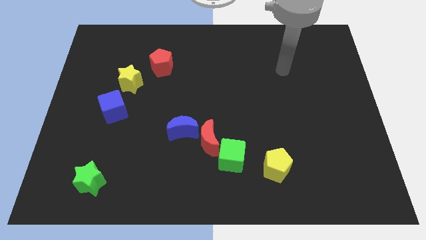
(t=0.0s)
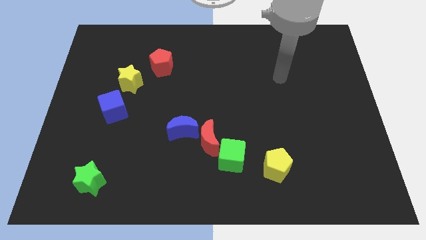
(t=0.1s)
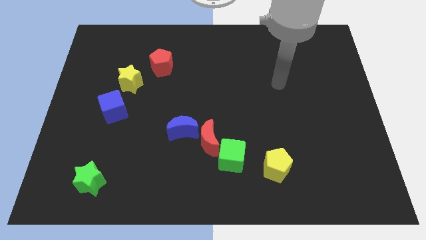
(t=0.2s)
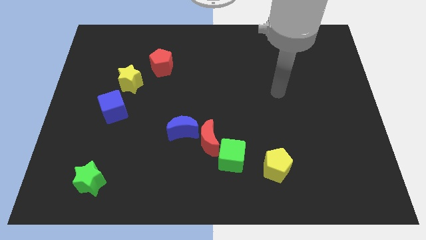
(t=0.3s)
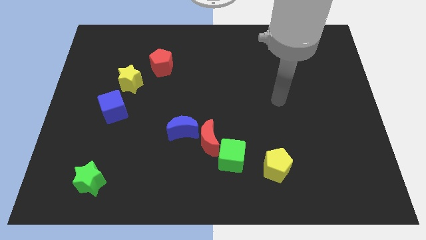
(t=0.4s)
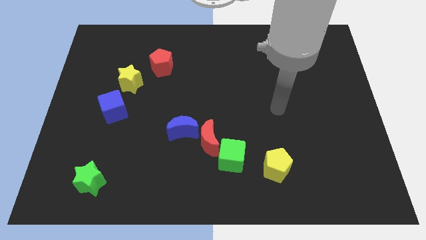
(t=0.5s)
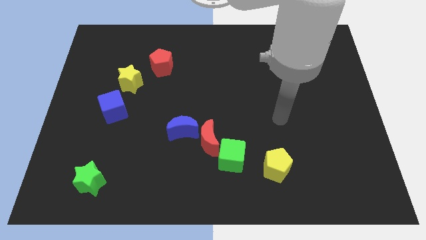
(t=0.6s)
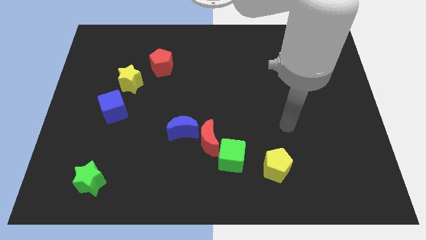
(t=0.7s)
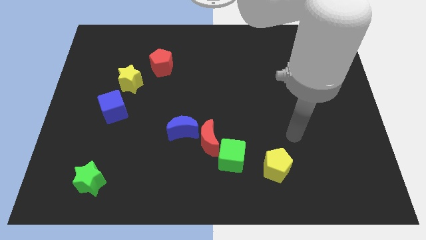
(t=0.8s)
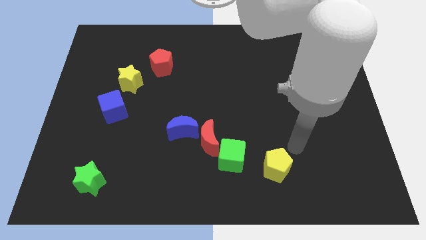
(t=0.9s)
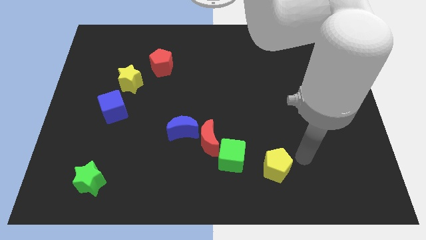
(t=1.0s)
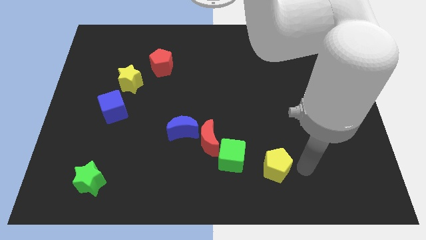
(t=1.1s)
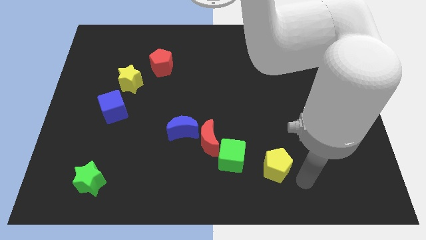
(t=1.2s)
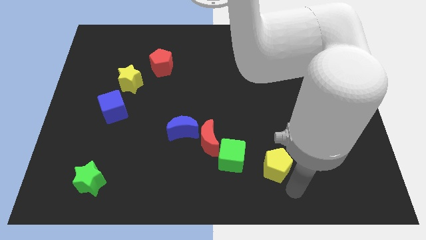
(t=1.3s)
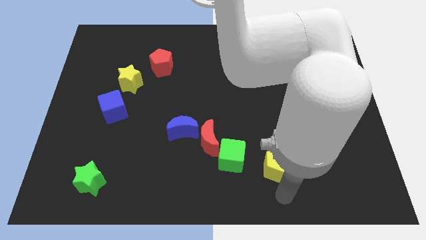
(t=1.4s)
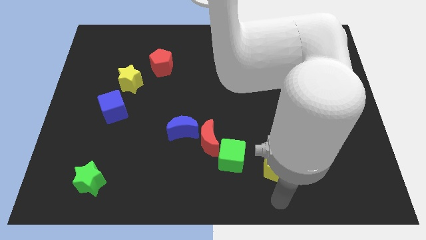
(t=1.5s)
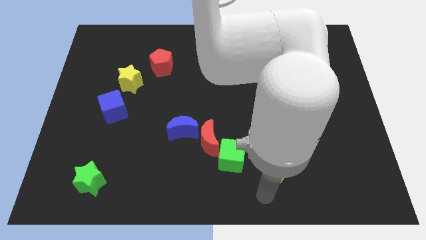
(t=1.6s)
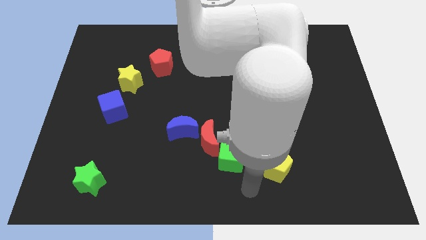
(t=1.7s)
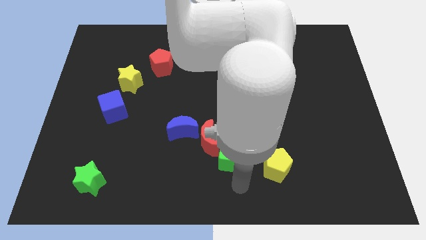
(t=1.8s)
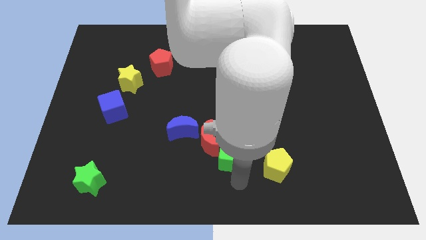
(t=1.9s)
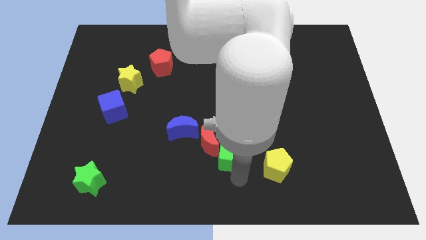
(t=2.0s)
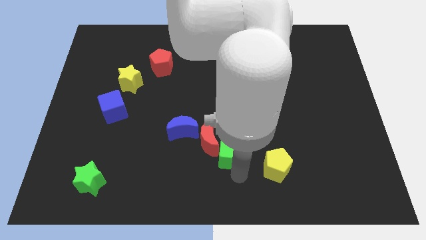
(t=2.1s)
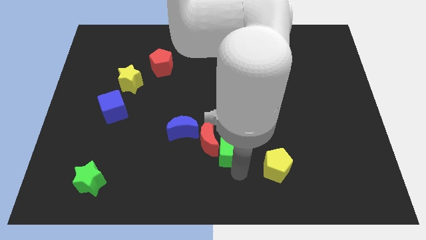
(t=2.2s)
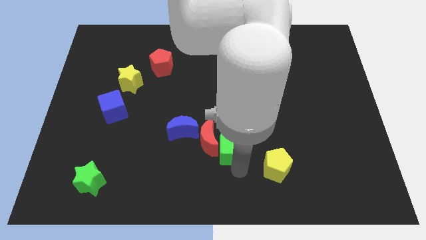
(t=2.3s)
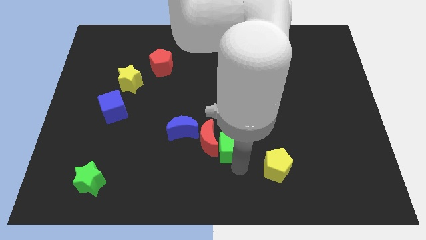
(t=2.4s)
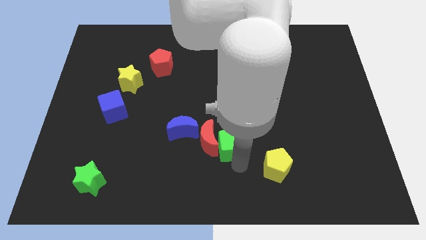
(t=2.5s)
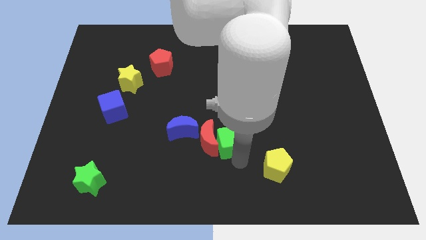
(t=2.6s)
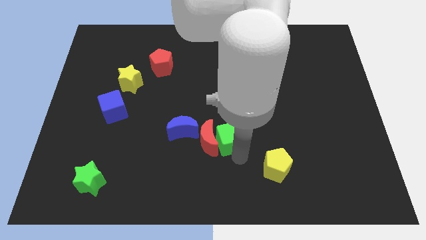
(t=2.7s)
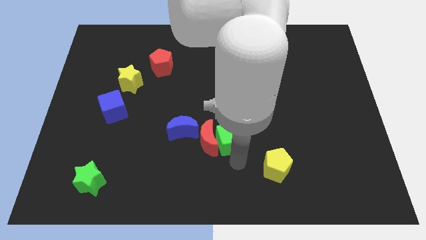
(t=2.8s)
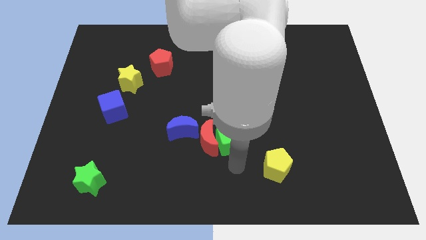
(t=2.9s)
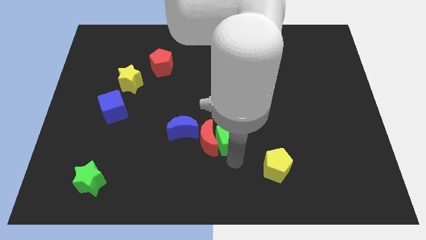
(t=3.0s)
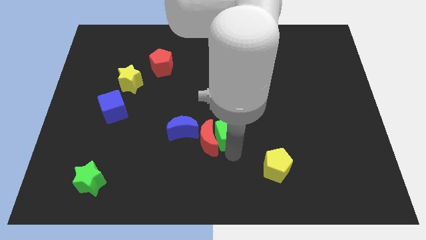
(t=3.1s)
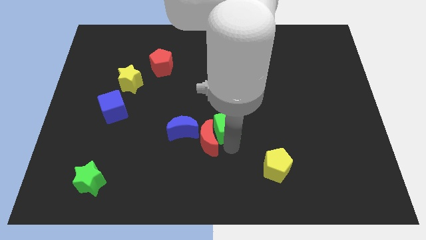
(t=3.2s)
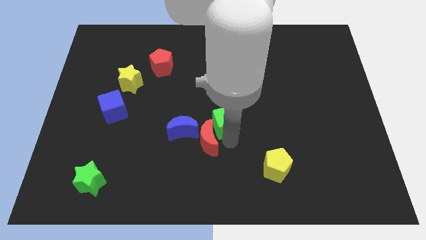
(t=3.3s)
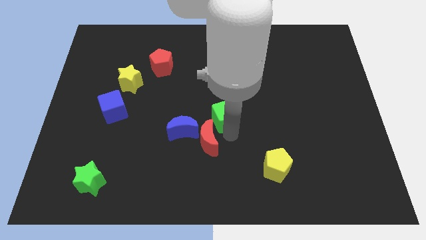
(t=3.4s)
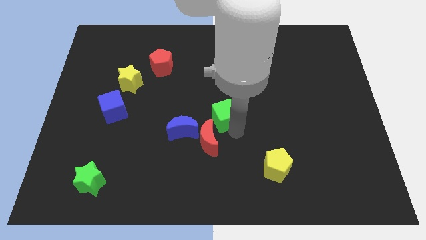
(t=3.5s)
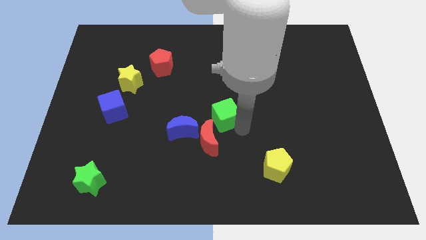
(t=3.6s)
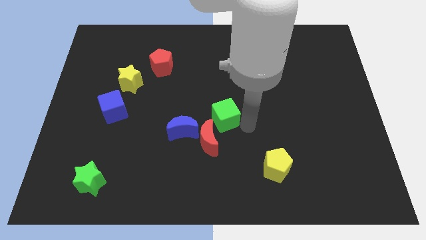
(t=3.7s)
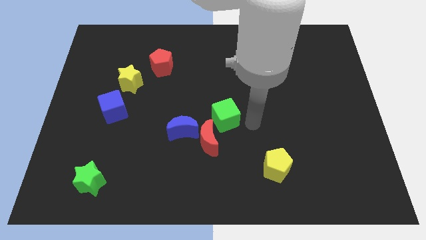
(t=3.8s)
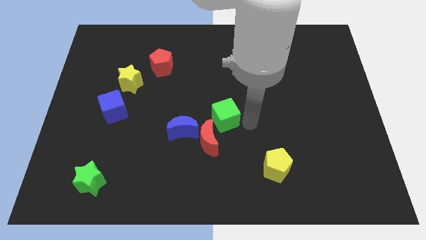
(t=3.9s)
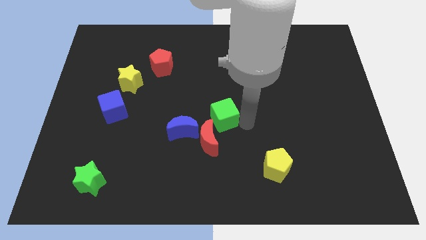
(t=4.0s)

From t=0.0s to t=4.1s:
move the green cube slightly upwards and left

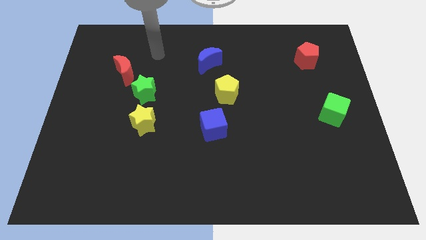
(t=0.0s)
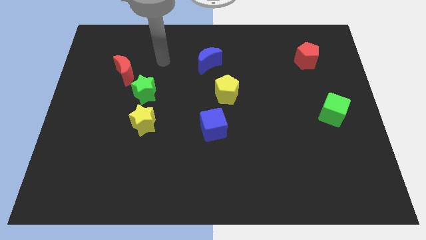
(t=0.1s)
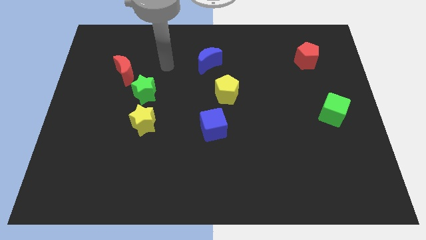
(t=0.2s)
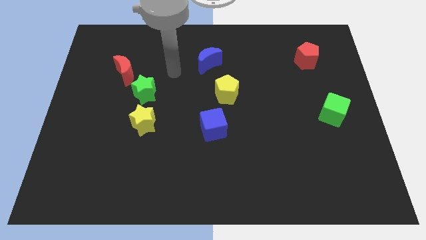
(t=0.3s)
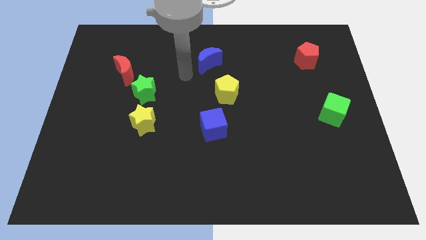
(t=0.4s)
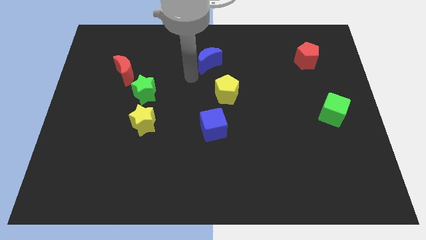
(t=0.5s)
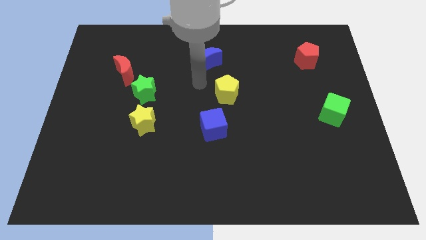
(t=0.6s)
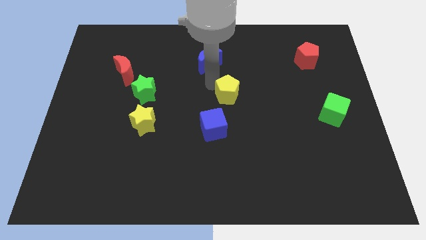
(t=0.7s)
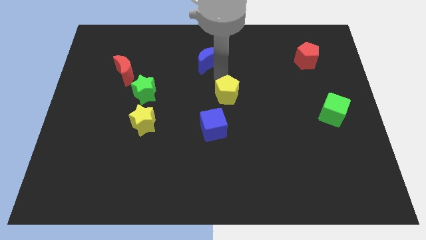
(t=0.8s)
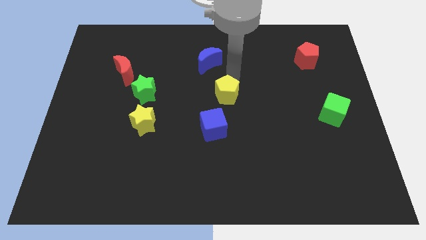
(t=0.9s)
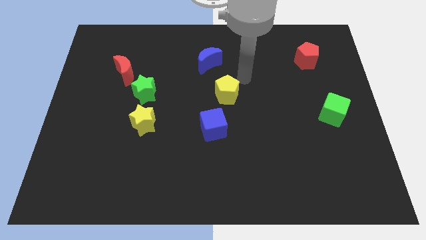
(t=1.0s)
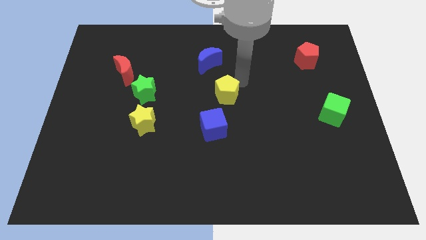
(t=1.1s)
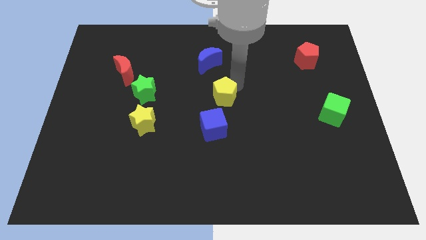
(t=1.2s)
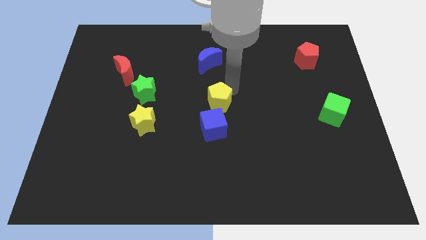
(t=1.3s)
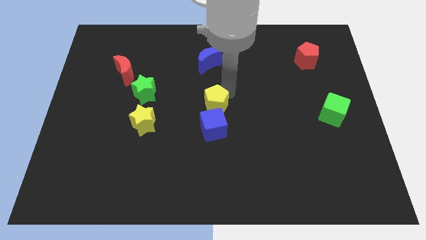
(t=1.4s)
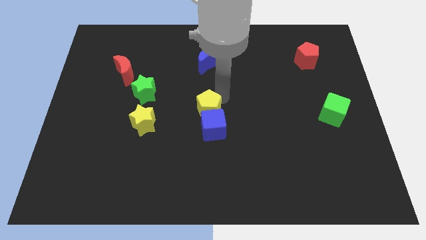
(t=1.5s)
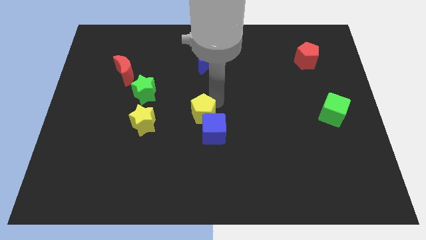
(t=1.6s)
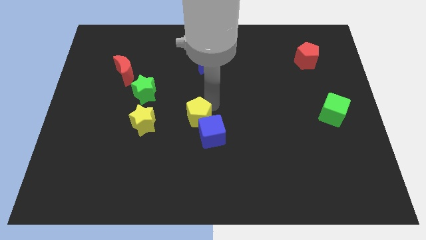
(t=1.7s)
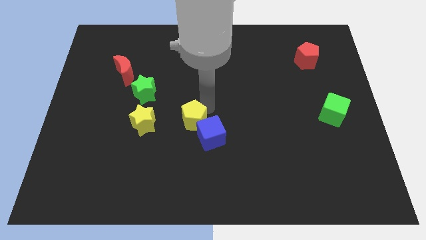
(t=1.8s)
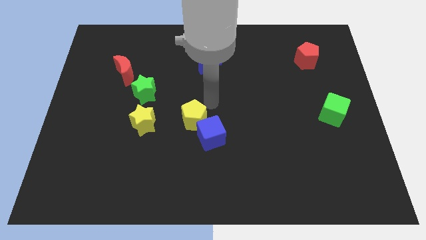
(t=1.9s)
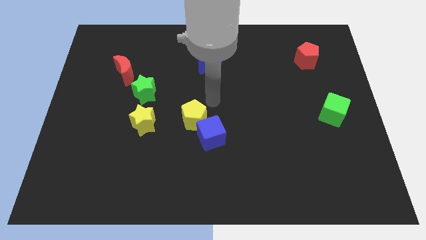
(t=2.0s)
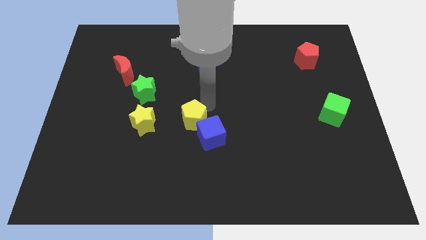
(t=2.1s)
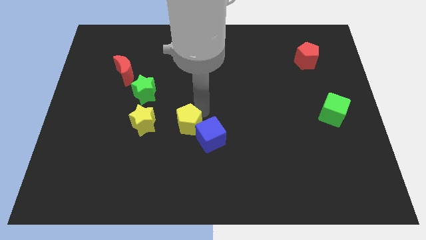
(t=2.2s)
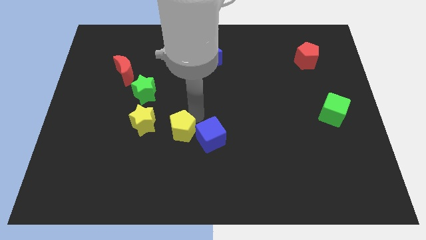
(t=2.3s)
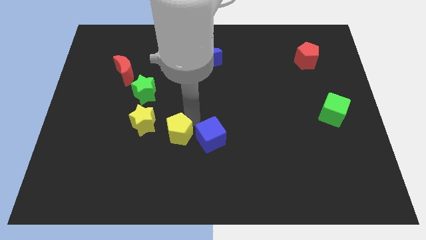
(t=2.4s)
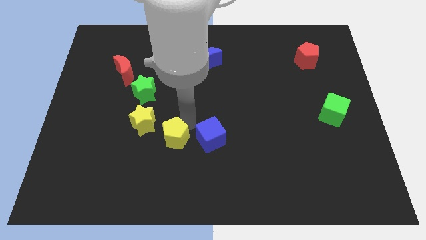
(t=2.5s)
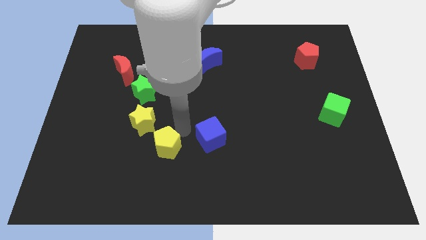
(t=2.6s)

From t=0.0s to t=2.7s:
slide the yellow pentagon diagonally downwards and left

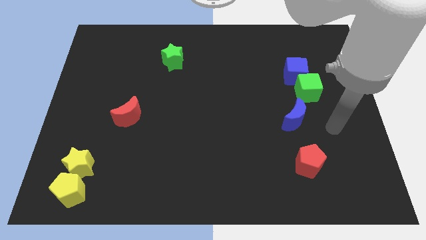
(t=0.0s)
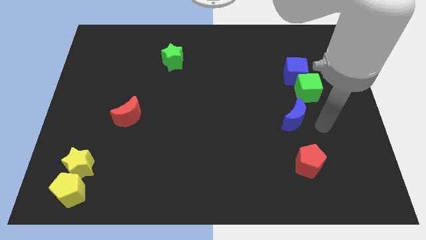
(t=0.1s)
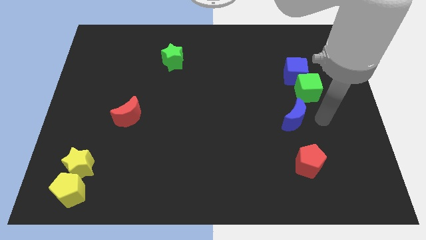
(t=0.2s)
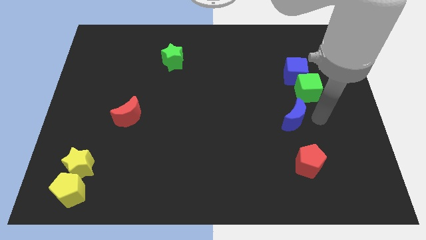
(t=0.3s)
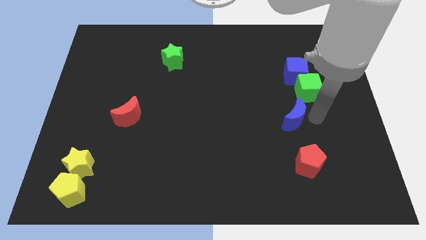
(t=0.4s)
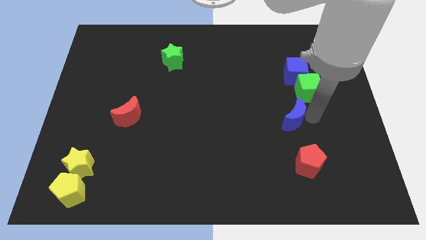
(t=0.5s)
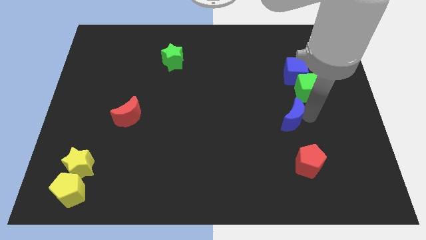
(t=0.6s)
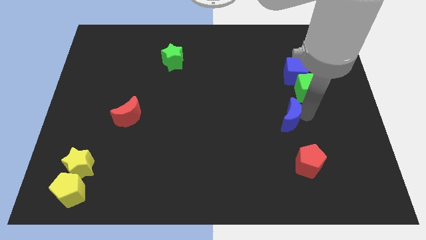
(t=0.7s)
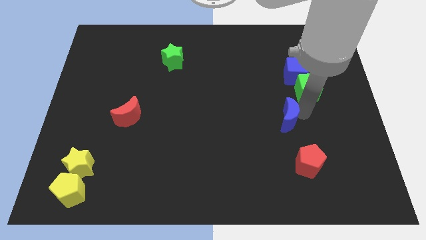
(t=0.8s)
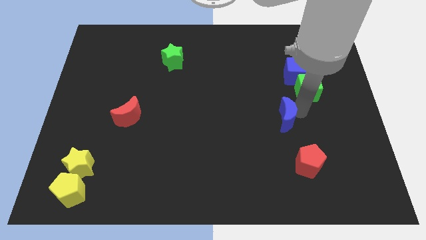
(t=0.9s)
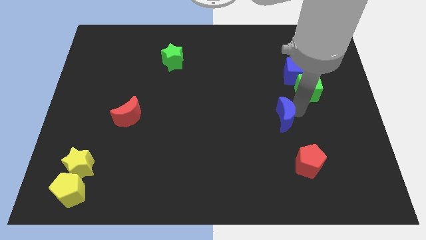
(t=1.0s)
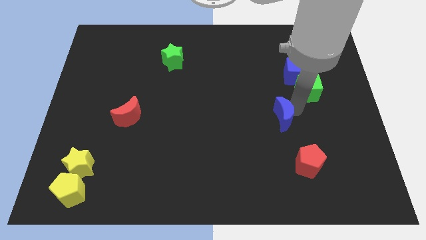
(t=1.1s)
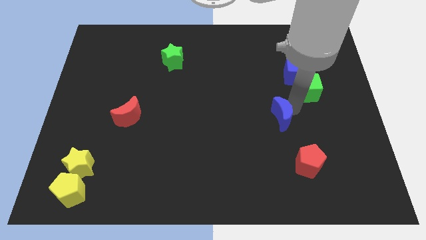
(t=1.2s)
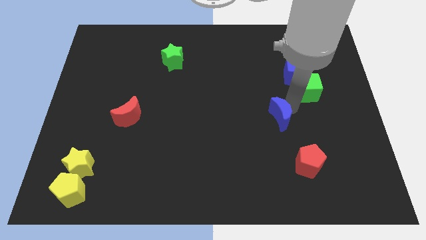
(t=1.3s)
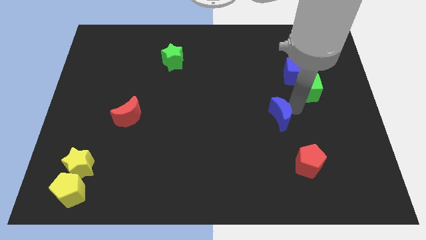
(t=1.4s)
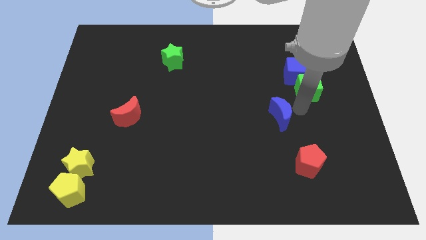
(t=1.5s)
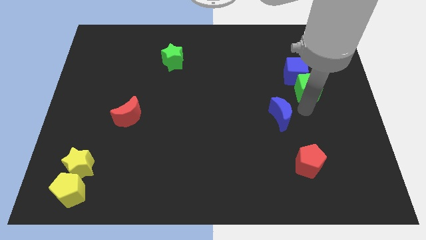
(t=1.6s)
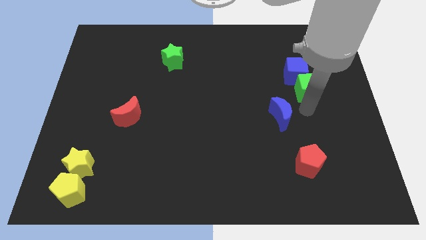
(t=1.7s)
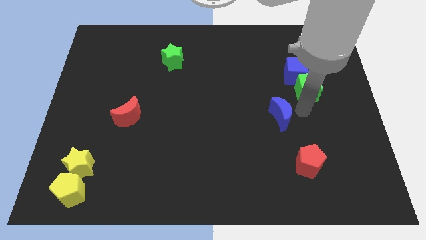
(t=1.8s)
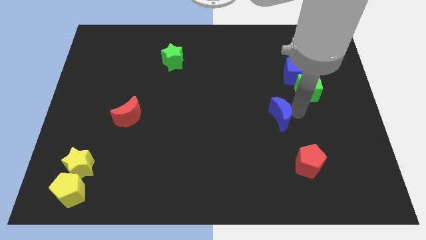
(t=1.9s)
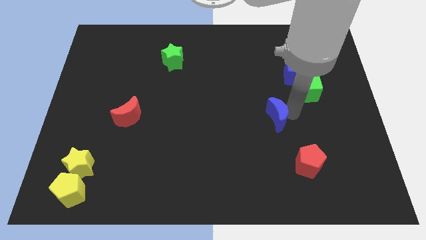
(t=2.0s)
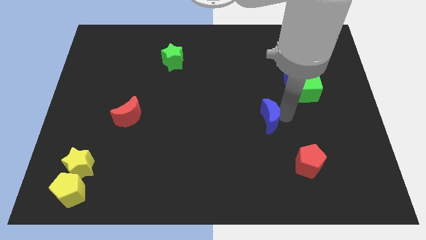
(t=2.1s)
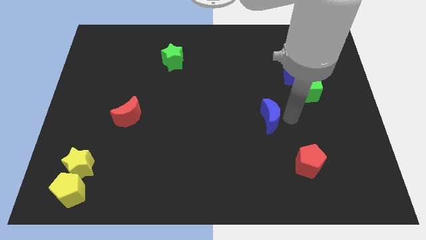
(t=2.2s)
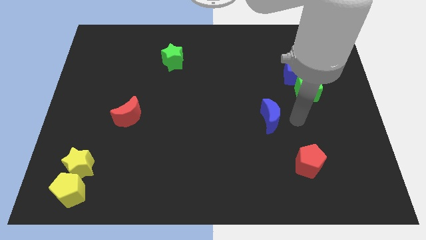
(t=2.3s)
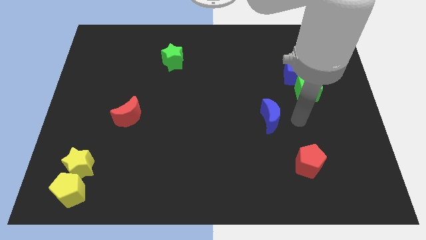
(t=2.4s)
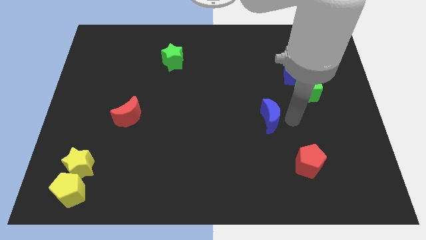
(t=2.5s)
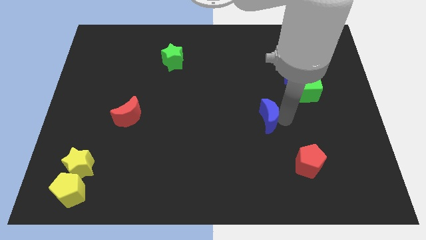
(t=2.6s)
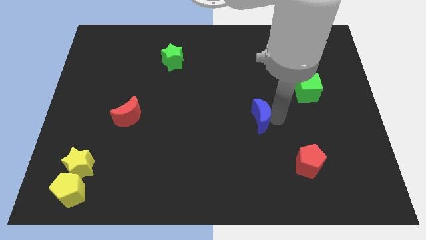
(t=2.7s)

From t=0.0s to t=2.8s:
slide the blue moon somewhat left
